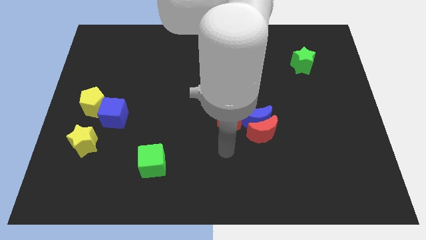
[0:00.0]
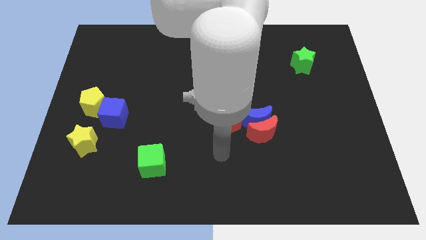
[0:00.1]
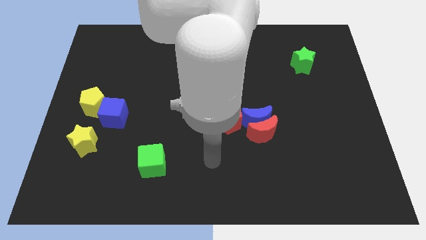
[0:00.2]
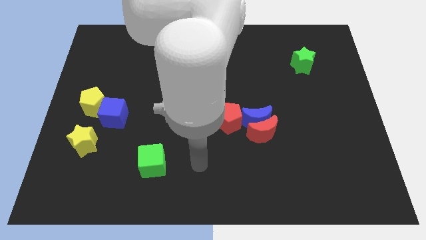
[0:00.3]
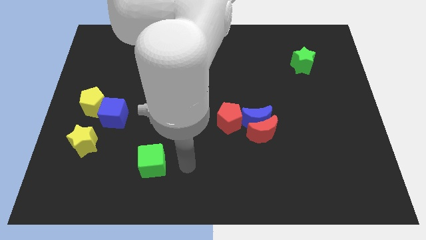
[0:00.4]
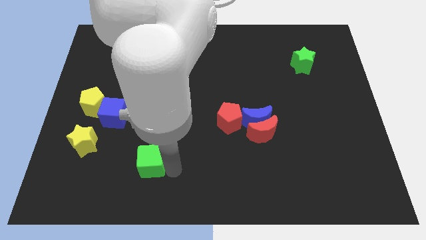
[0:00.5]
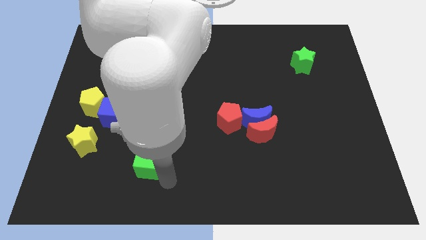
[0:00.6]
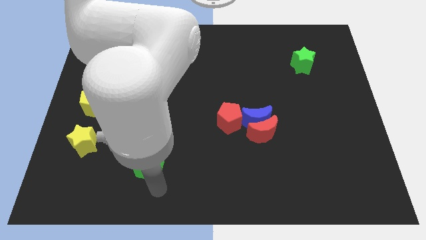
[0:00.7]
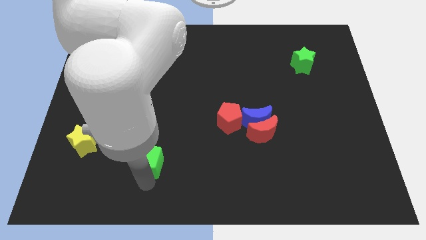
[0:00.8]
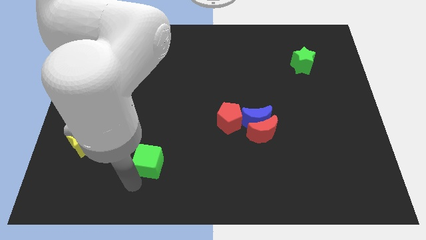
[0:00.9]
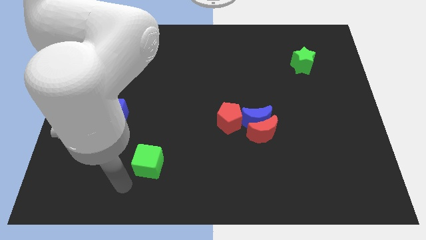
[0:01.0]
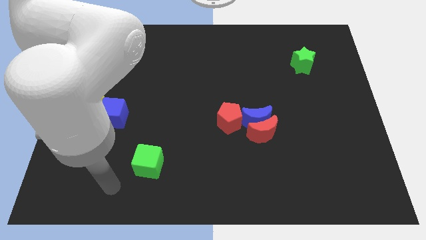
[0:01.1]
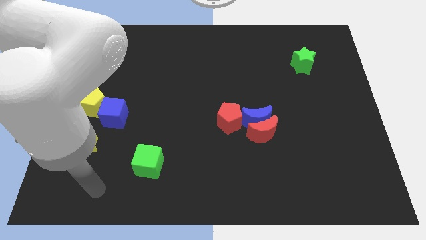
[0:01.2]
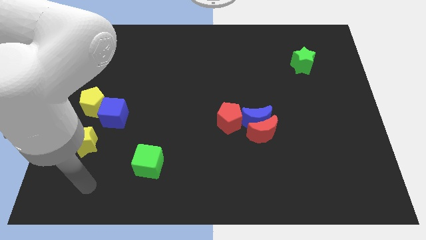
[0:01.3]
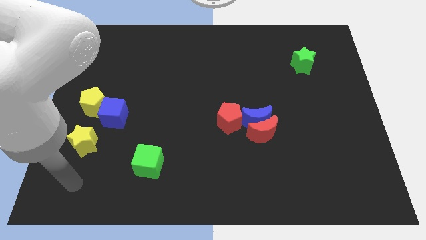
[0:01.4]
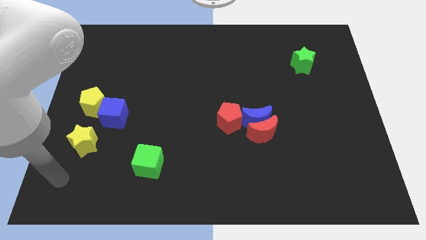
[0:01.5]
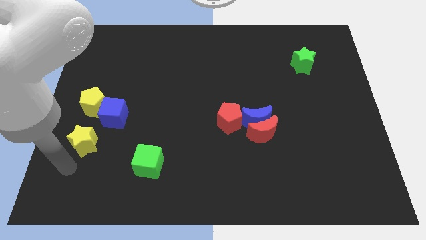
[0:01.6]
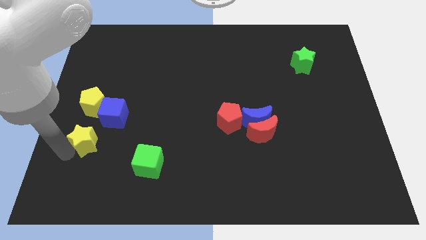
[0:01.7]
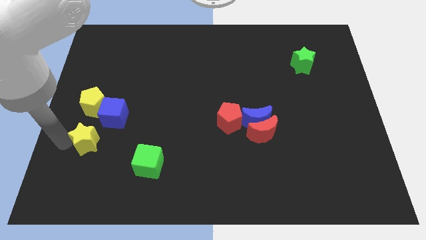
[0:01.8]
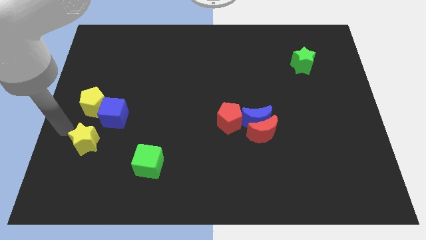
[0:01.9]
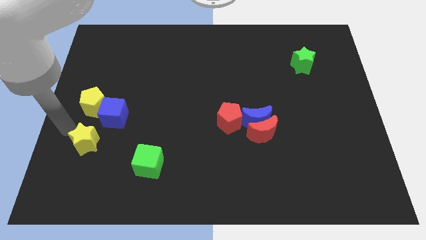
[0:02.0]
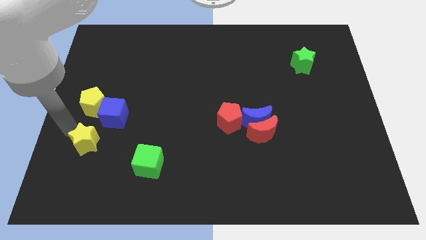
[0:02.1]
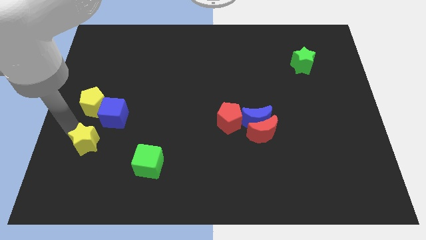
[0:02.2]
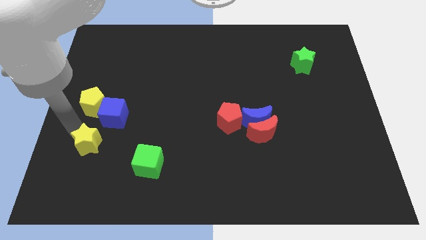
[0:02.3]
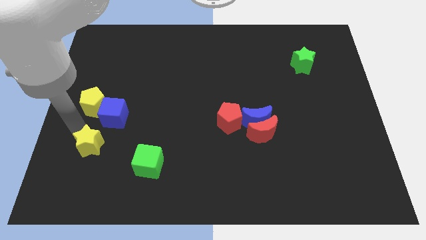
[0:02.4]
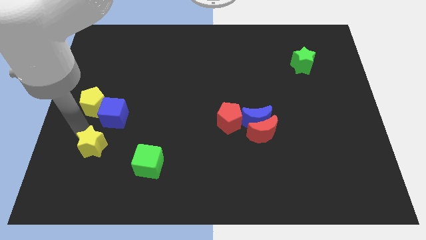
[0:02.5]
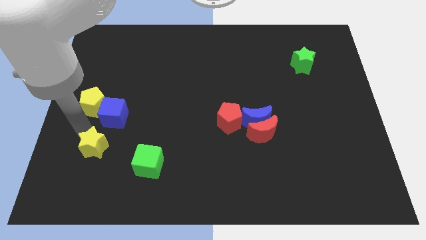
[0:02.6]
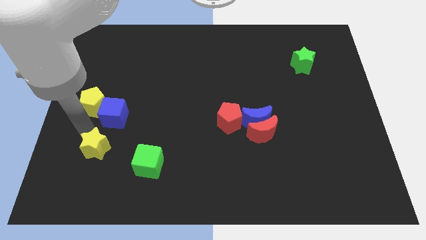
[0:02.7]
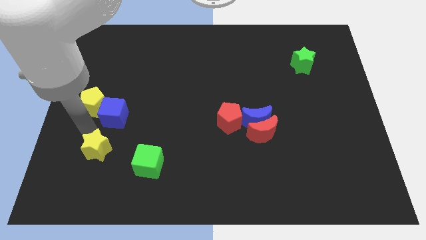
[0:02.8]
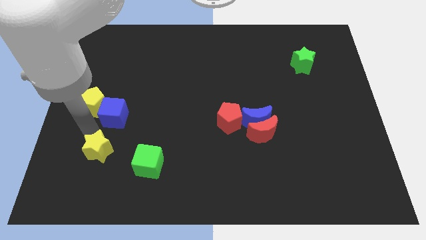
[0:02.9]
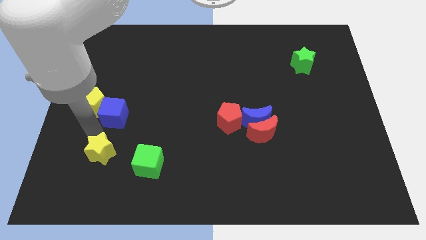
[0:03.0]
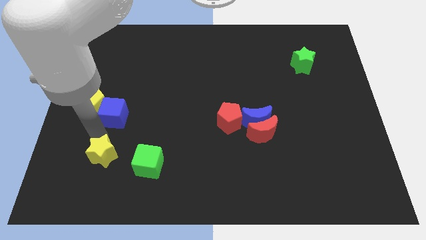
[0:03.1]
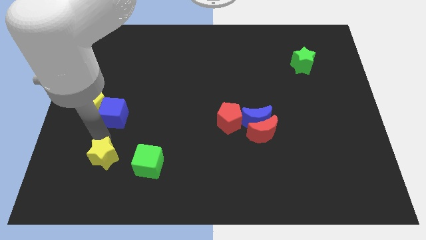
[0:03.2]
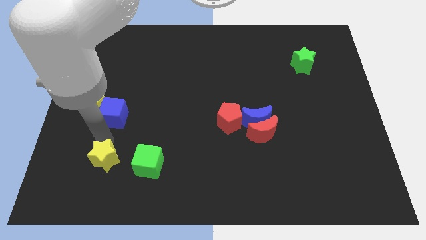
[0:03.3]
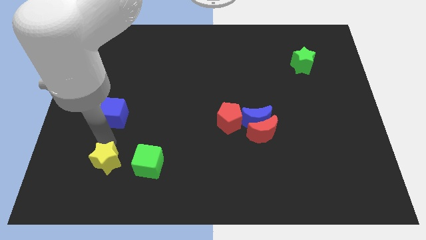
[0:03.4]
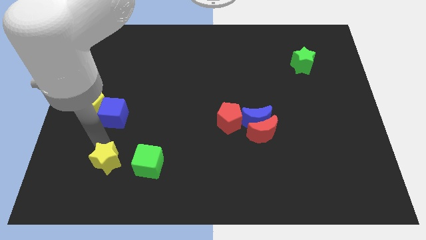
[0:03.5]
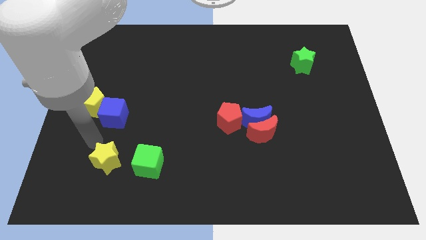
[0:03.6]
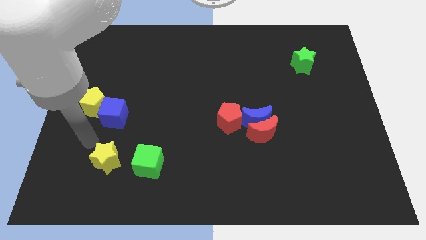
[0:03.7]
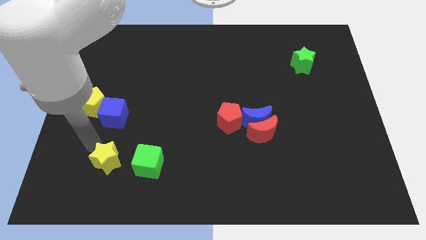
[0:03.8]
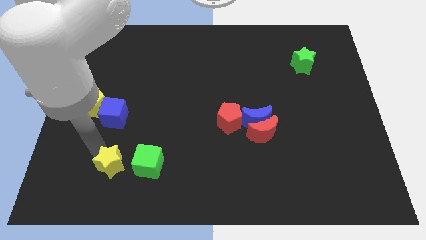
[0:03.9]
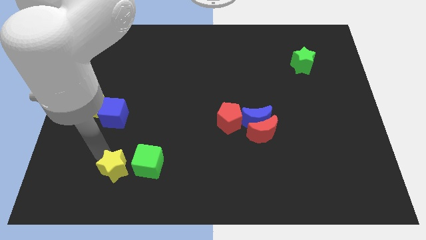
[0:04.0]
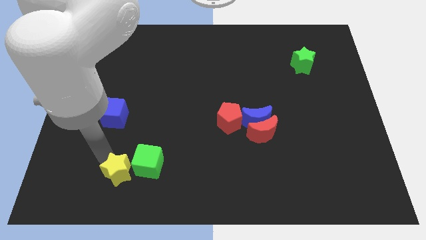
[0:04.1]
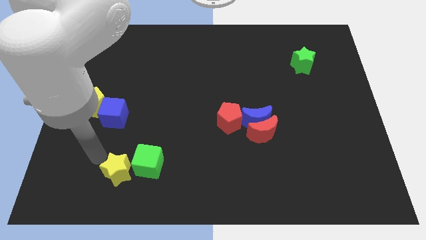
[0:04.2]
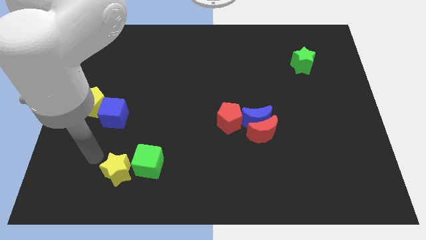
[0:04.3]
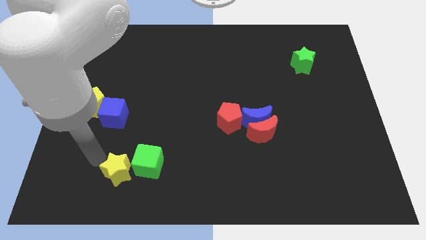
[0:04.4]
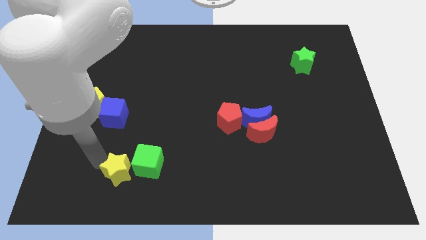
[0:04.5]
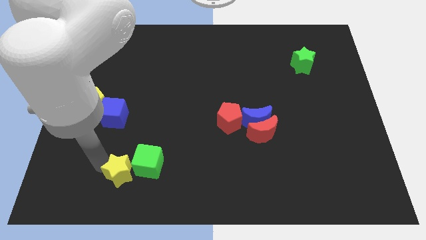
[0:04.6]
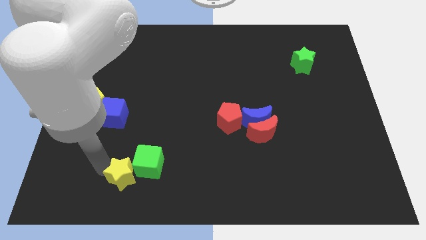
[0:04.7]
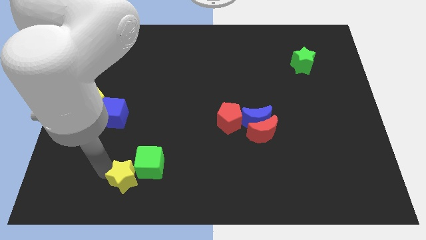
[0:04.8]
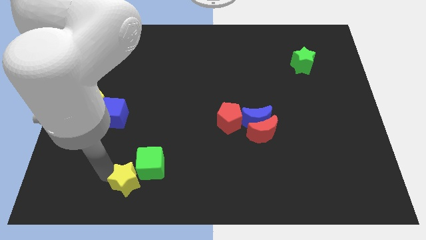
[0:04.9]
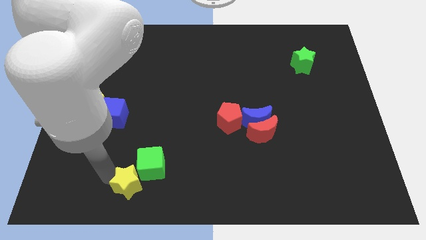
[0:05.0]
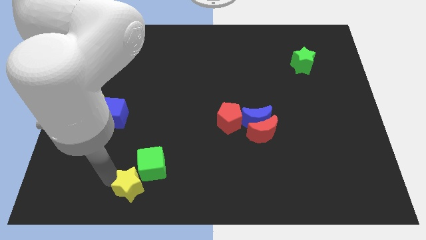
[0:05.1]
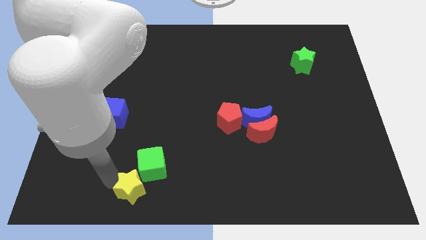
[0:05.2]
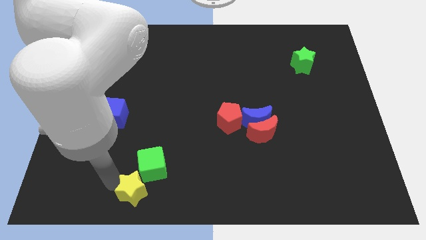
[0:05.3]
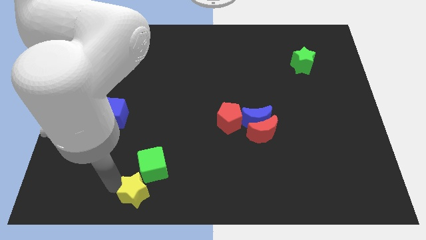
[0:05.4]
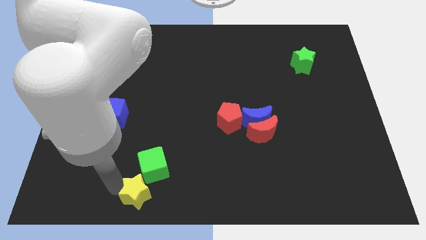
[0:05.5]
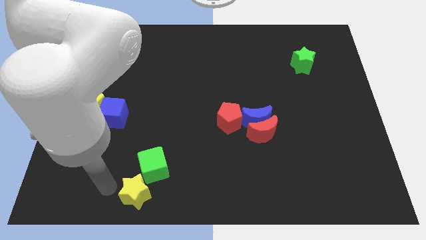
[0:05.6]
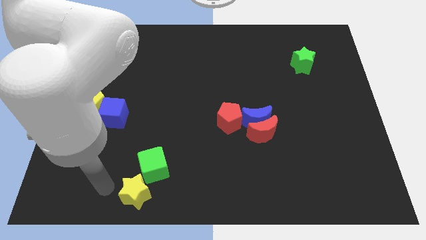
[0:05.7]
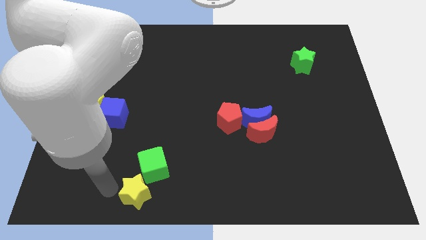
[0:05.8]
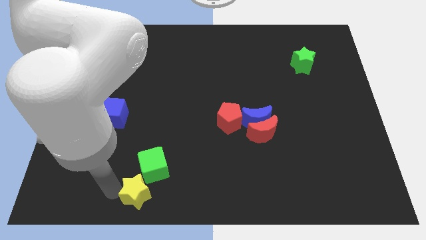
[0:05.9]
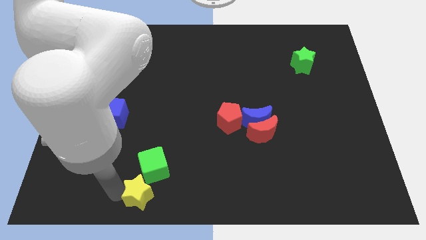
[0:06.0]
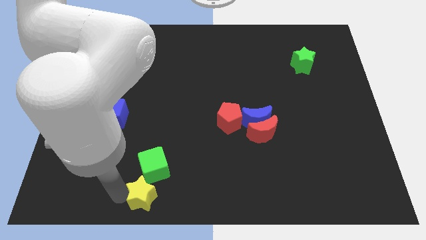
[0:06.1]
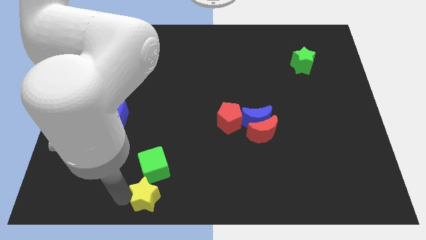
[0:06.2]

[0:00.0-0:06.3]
slide the yellow star to the bottom side

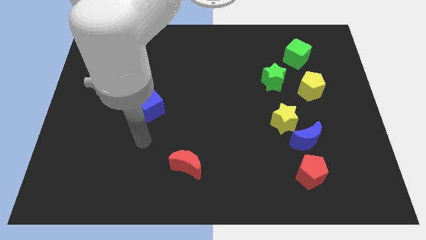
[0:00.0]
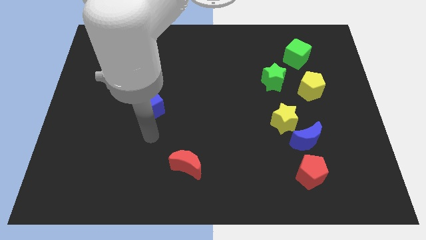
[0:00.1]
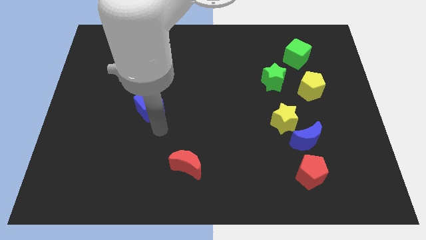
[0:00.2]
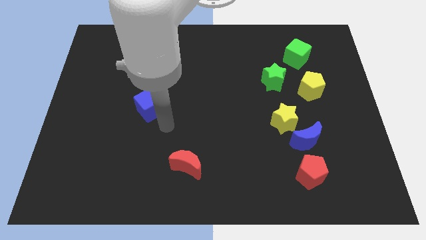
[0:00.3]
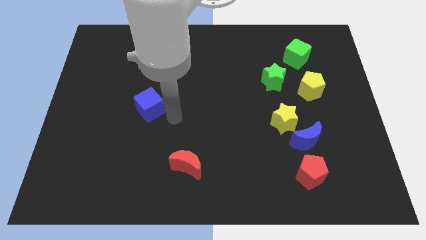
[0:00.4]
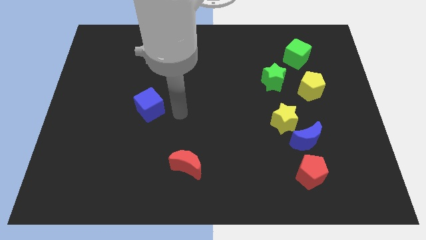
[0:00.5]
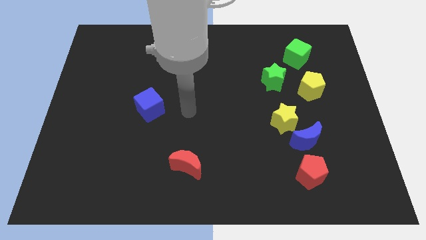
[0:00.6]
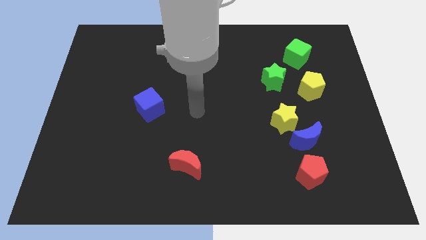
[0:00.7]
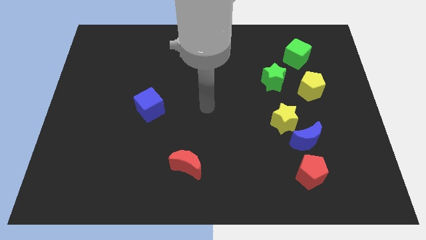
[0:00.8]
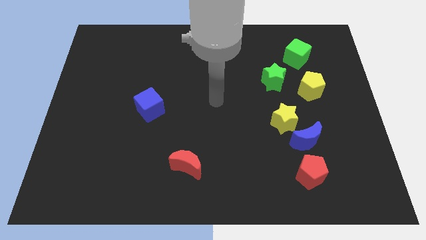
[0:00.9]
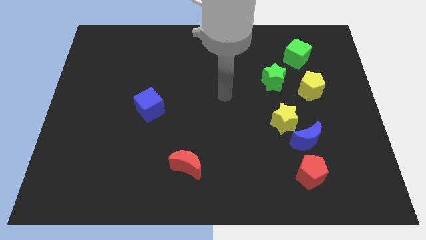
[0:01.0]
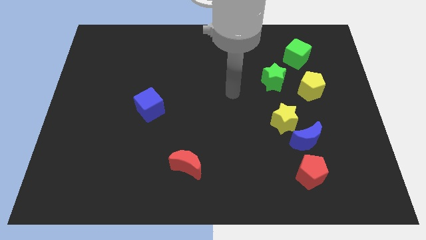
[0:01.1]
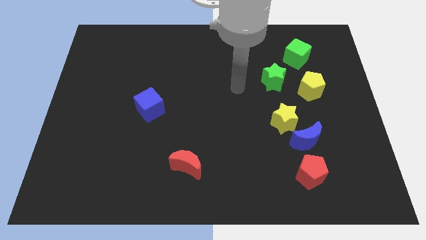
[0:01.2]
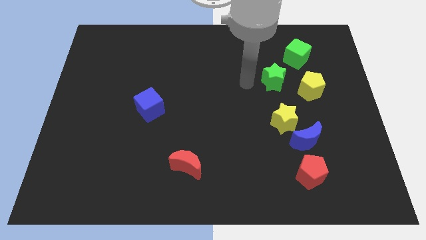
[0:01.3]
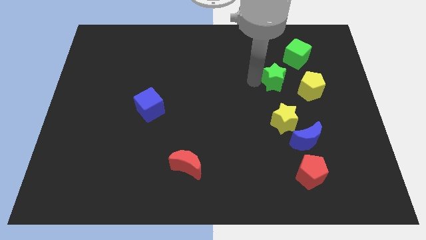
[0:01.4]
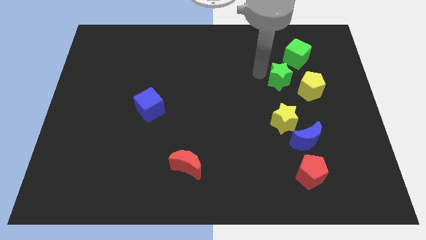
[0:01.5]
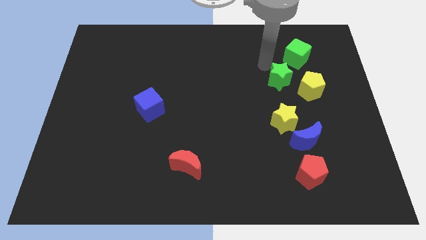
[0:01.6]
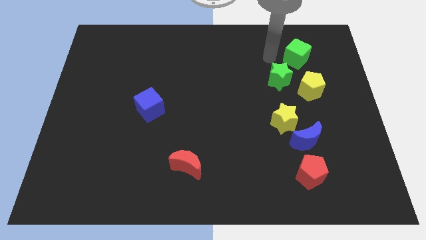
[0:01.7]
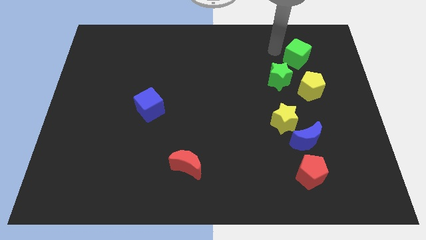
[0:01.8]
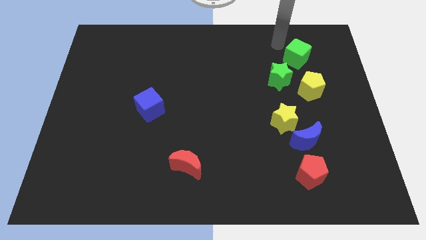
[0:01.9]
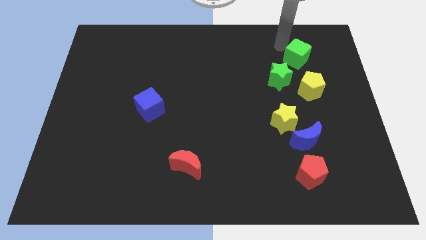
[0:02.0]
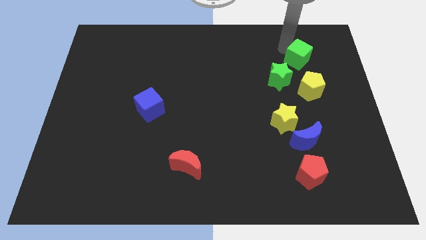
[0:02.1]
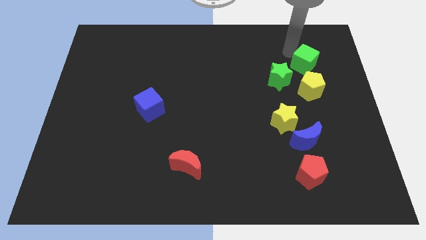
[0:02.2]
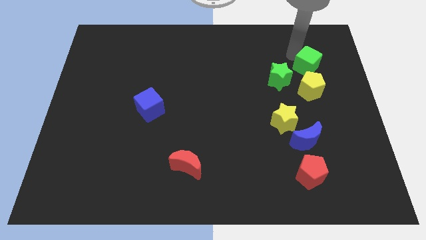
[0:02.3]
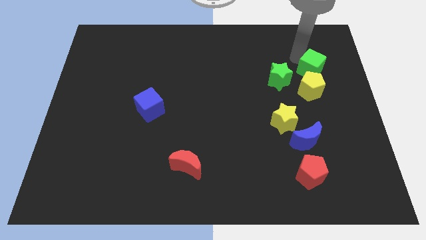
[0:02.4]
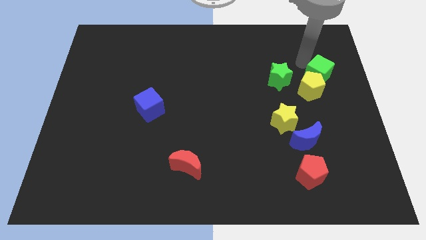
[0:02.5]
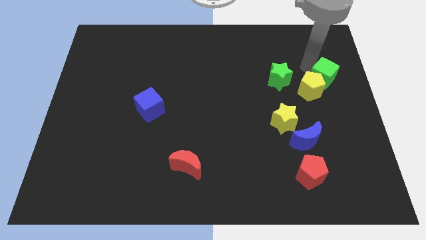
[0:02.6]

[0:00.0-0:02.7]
slide the green cube to the right side of the board
